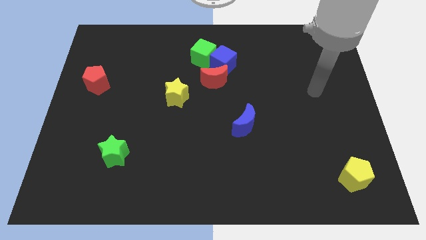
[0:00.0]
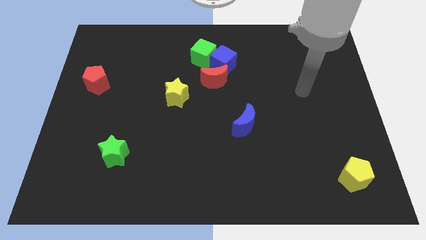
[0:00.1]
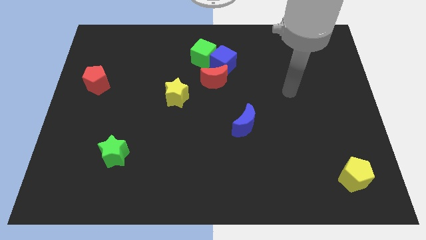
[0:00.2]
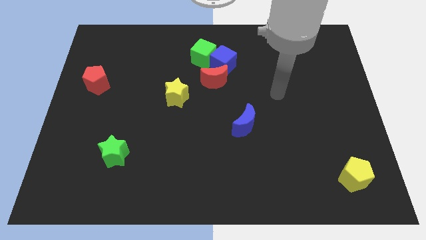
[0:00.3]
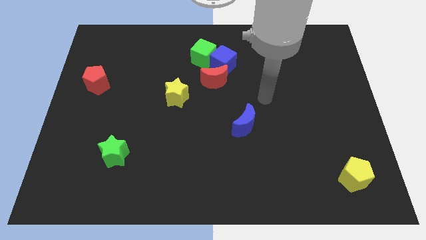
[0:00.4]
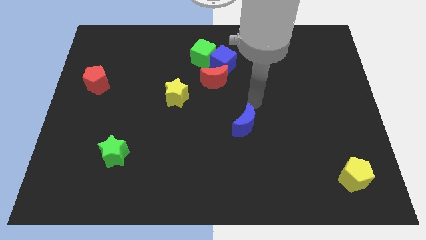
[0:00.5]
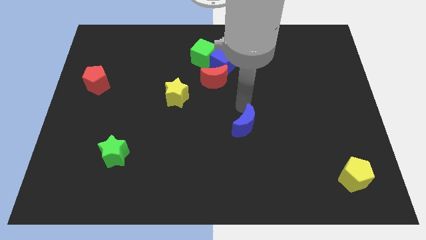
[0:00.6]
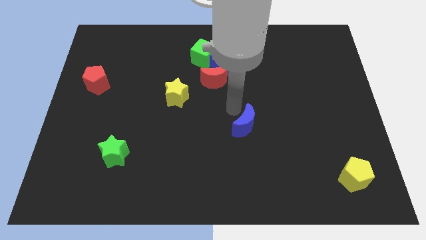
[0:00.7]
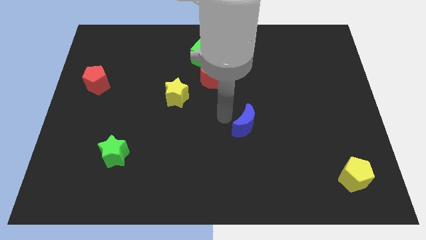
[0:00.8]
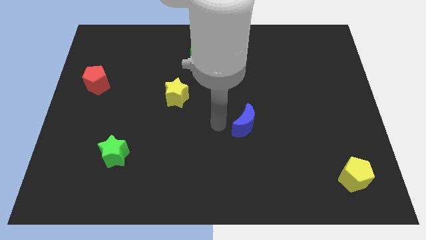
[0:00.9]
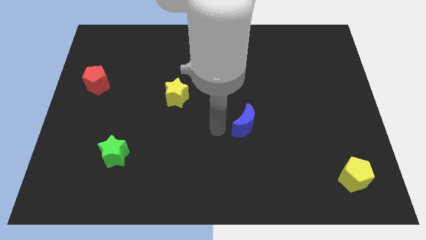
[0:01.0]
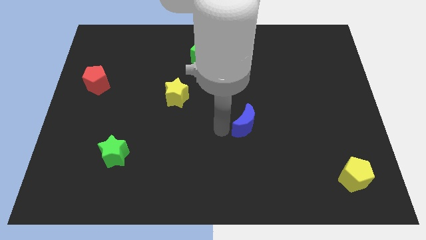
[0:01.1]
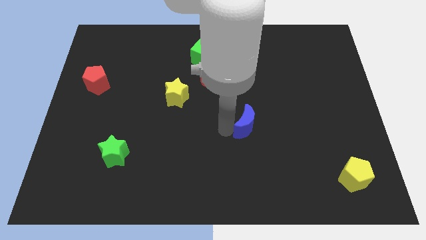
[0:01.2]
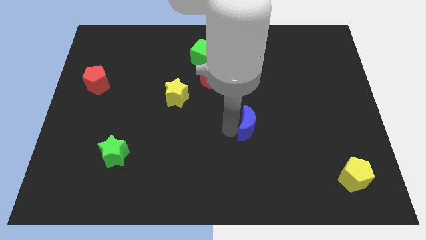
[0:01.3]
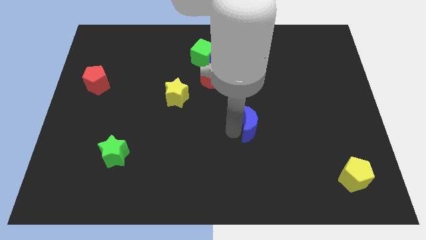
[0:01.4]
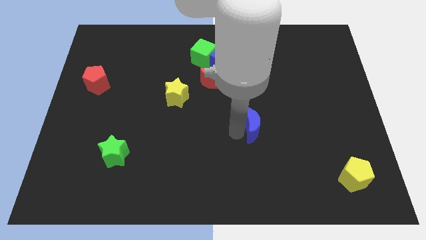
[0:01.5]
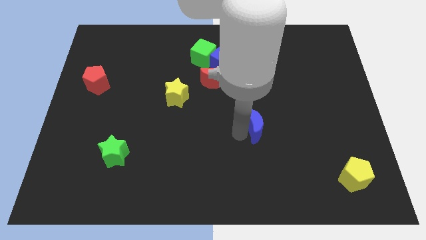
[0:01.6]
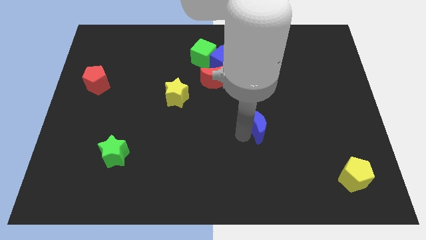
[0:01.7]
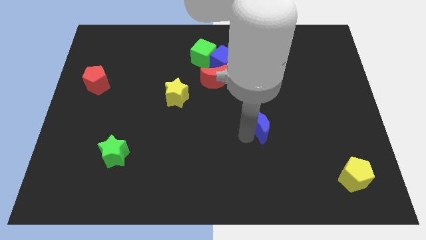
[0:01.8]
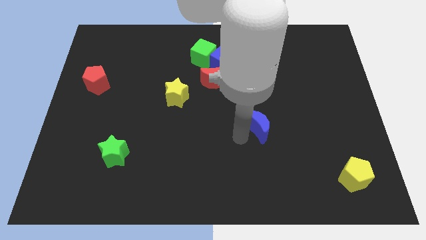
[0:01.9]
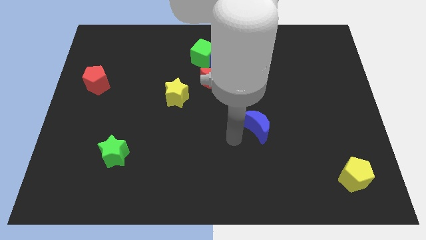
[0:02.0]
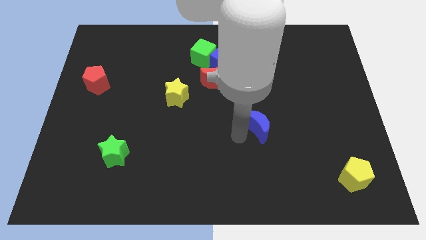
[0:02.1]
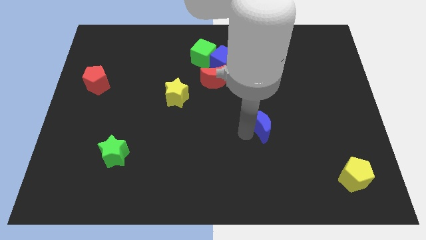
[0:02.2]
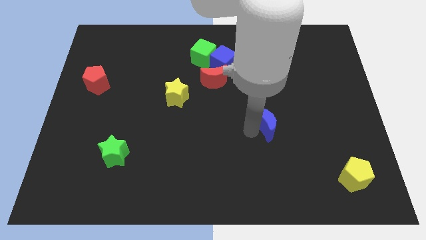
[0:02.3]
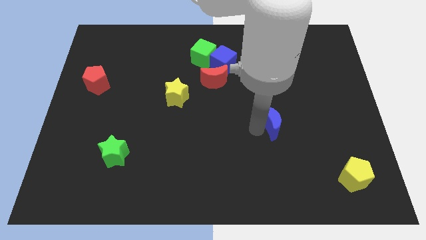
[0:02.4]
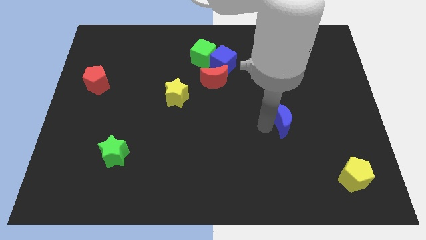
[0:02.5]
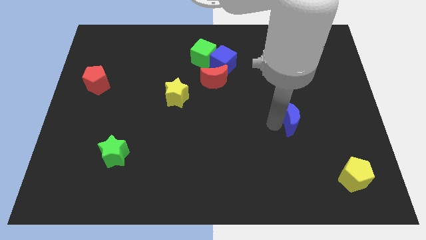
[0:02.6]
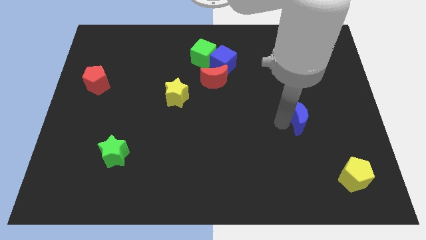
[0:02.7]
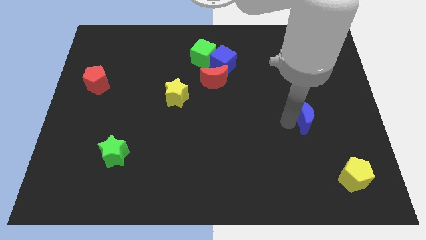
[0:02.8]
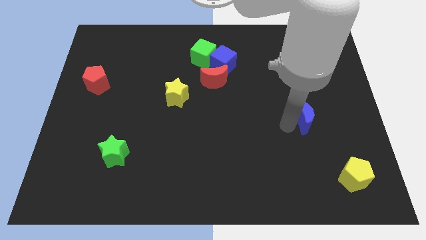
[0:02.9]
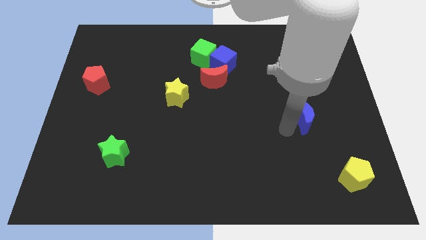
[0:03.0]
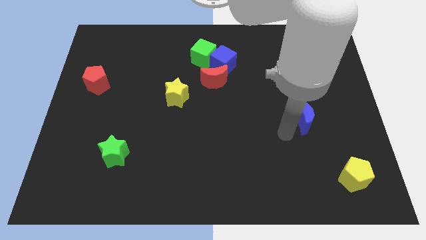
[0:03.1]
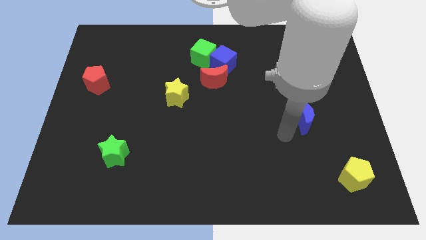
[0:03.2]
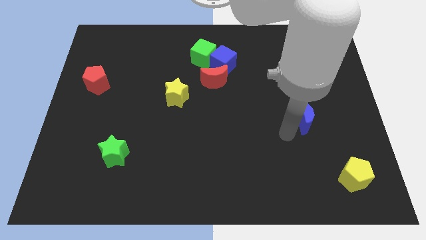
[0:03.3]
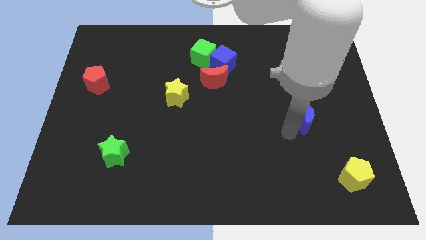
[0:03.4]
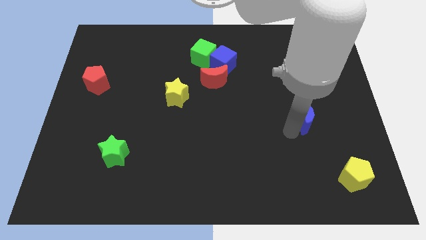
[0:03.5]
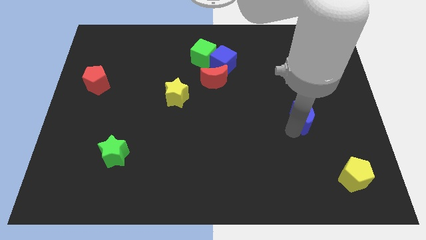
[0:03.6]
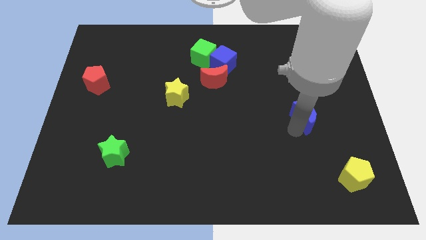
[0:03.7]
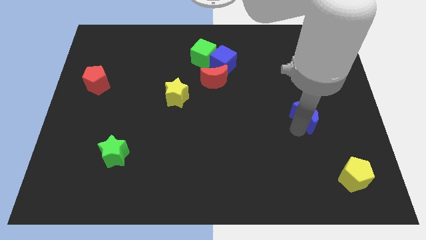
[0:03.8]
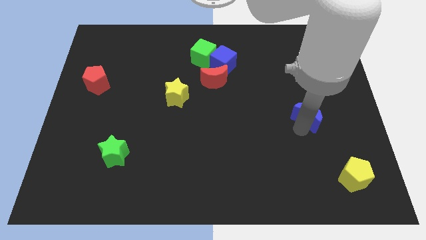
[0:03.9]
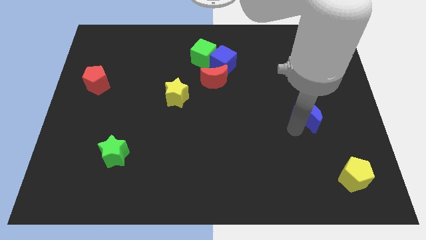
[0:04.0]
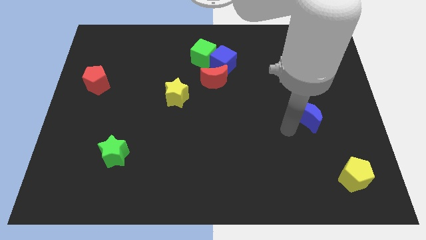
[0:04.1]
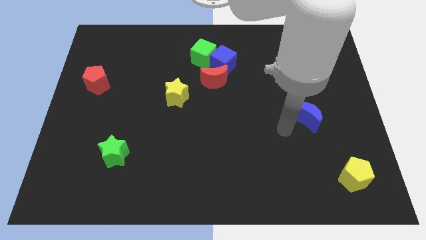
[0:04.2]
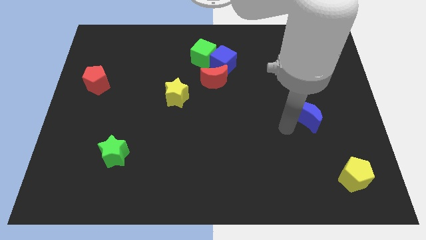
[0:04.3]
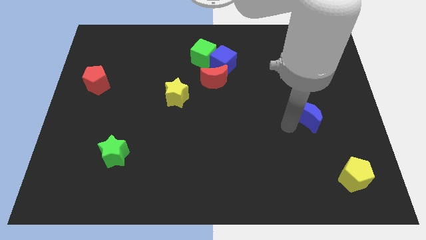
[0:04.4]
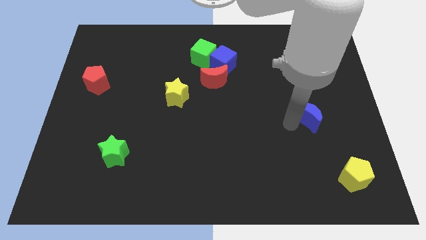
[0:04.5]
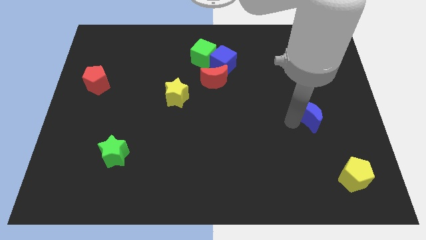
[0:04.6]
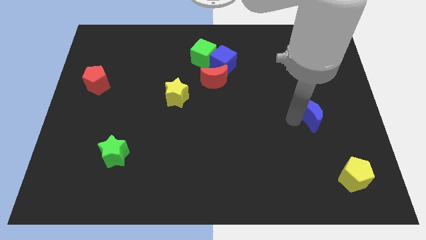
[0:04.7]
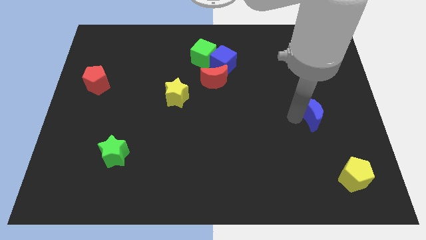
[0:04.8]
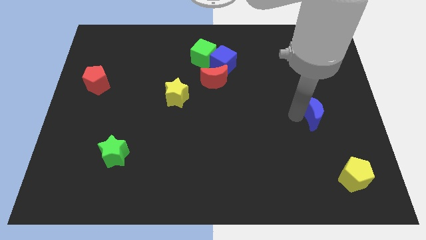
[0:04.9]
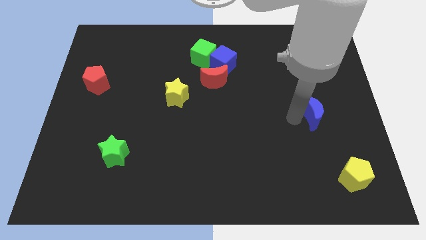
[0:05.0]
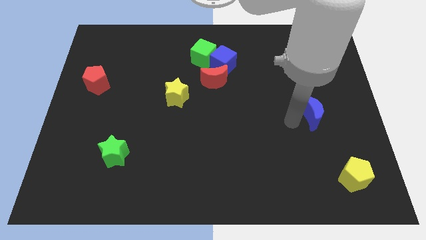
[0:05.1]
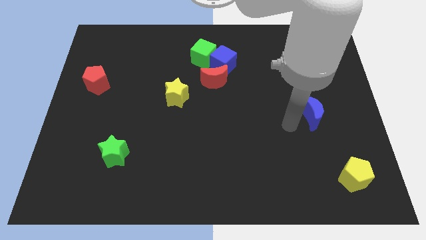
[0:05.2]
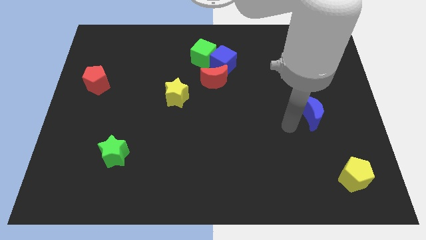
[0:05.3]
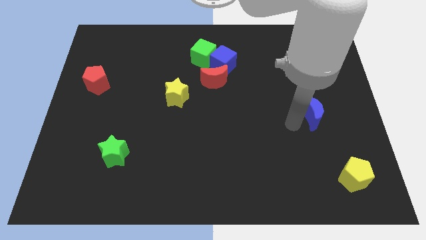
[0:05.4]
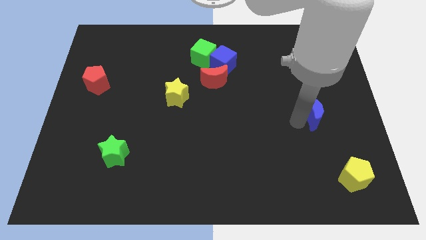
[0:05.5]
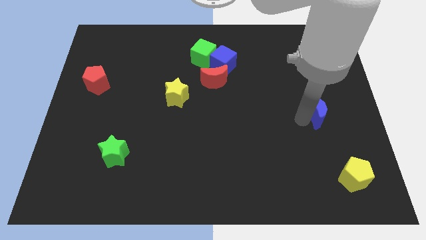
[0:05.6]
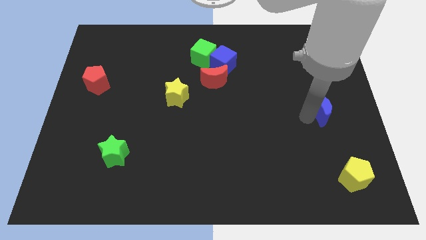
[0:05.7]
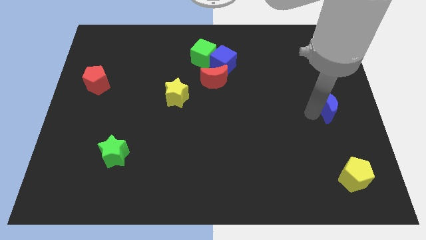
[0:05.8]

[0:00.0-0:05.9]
push the blue moon to the center right

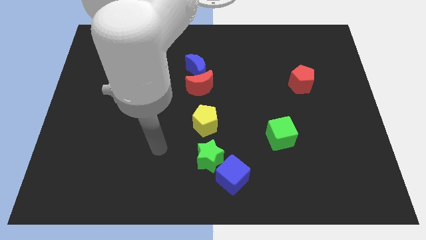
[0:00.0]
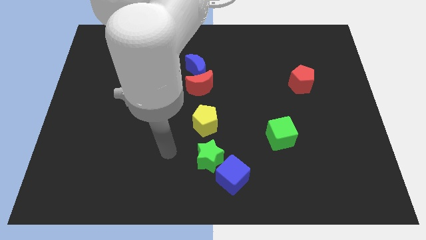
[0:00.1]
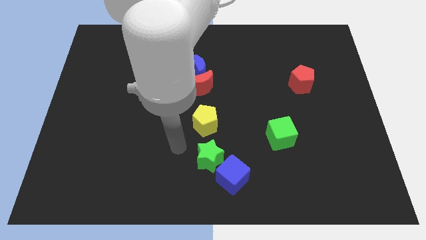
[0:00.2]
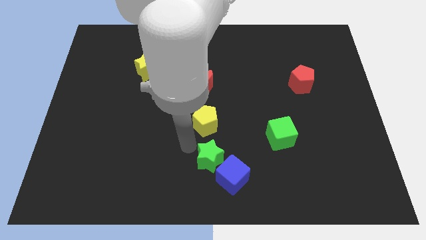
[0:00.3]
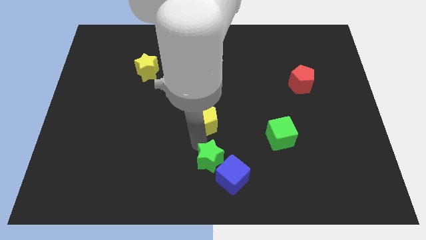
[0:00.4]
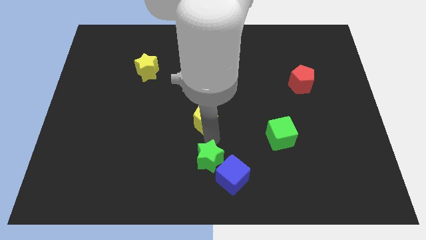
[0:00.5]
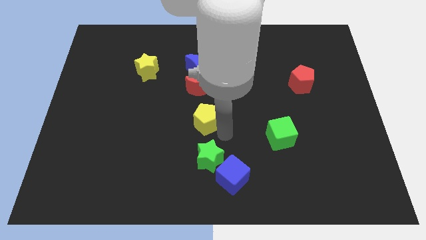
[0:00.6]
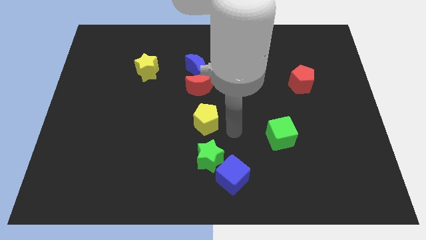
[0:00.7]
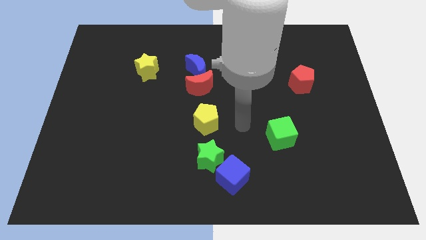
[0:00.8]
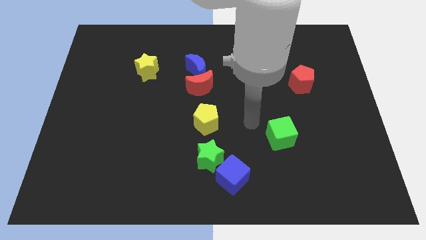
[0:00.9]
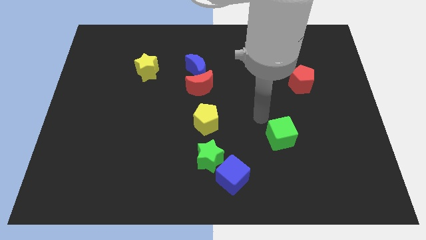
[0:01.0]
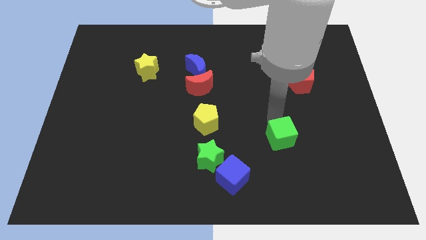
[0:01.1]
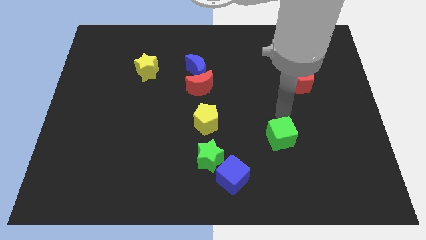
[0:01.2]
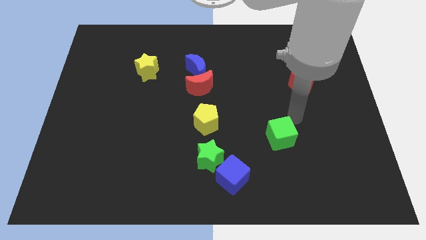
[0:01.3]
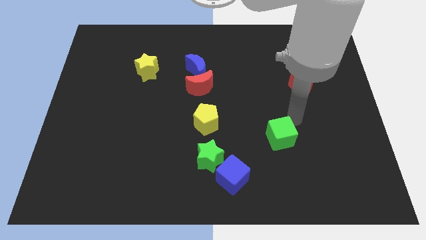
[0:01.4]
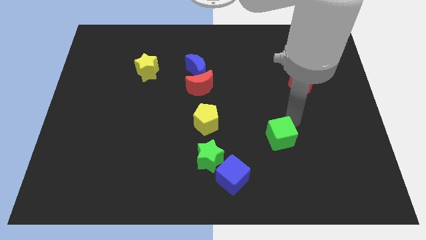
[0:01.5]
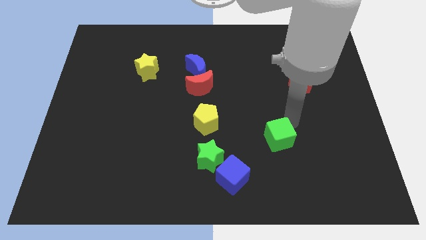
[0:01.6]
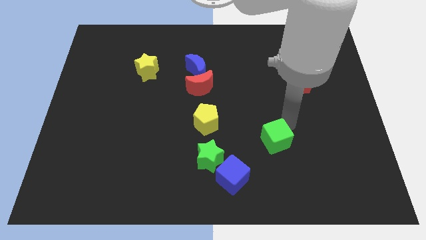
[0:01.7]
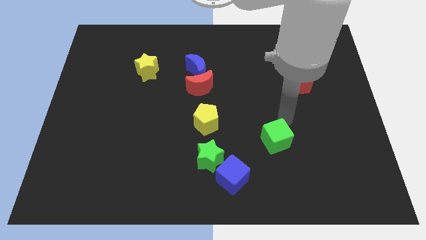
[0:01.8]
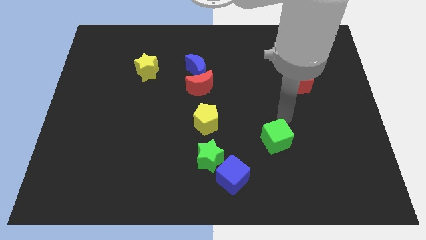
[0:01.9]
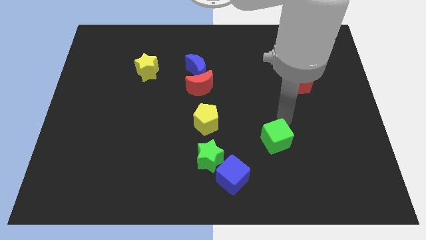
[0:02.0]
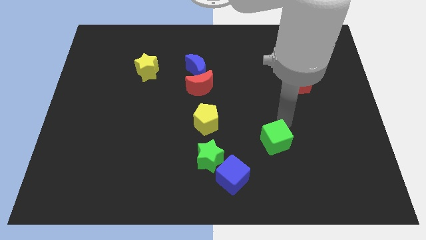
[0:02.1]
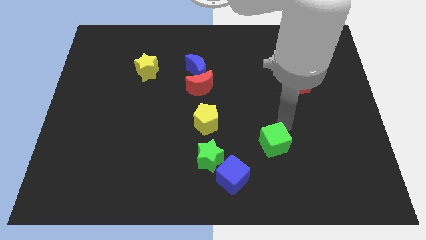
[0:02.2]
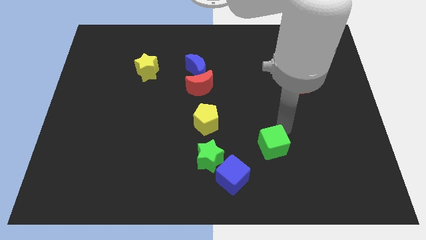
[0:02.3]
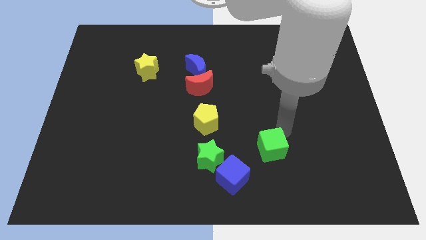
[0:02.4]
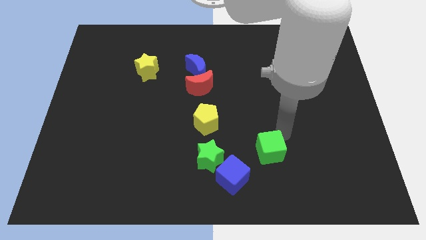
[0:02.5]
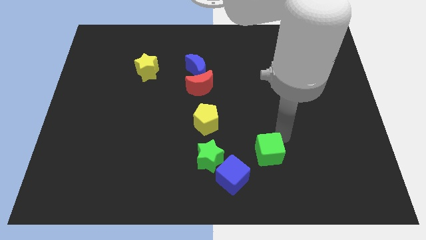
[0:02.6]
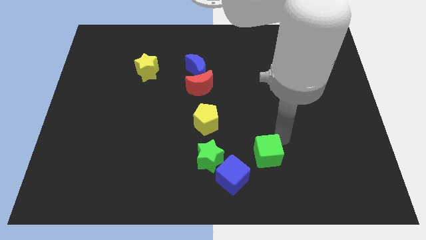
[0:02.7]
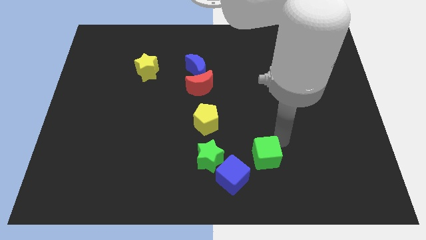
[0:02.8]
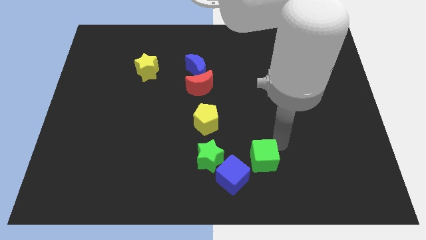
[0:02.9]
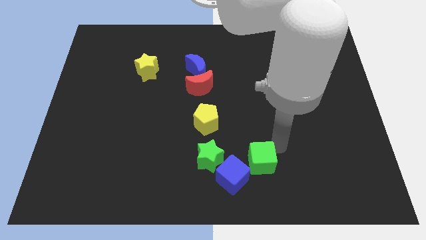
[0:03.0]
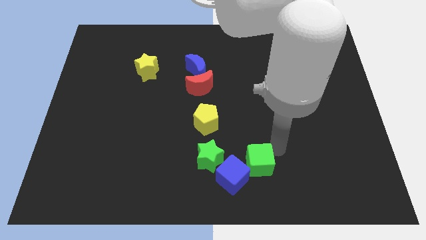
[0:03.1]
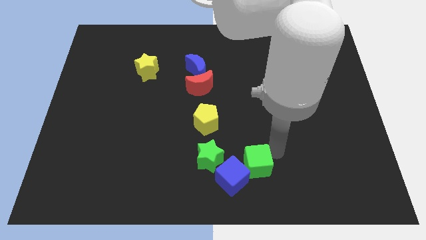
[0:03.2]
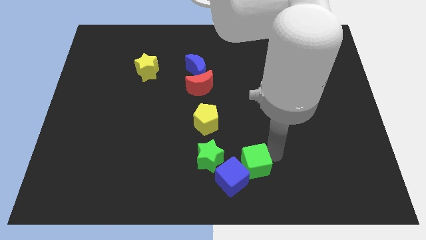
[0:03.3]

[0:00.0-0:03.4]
push the green cube to the bottom
